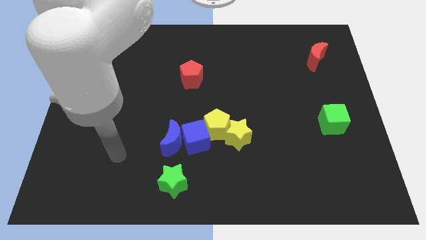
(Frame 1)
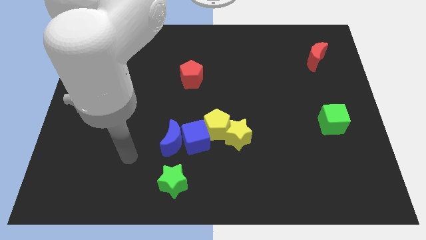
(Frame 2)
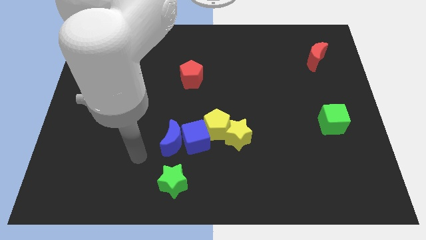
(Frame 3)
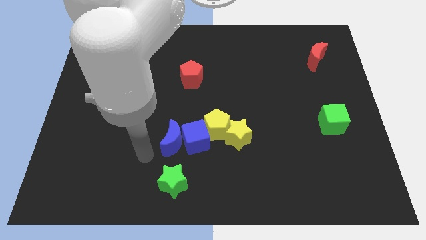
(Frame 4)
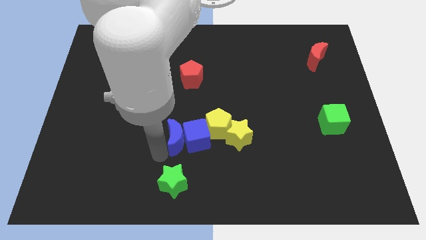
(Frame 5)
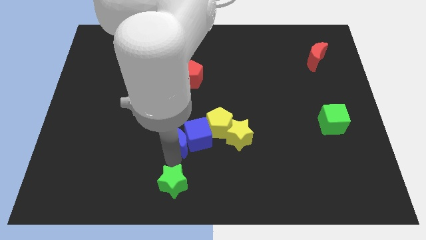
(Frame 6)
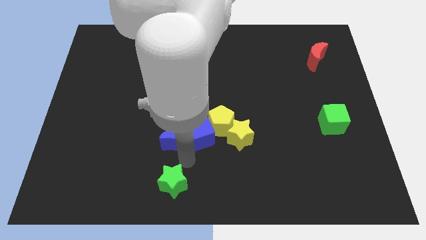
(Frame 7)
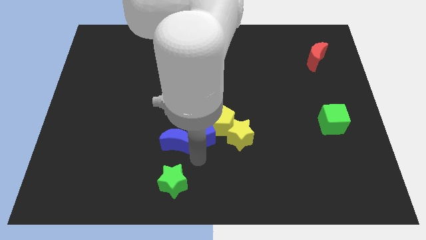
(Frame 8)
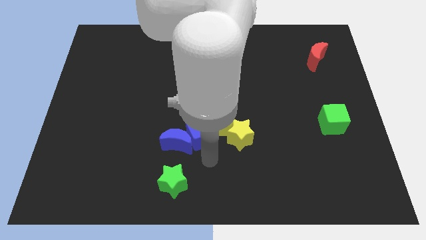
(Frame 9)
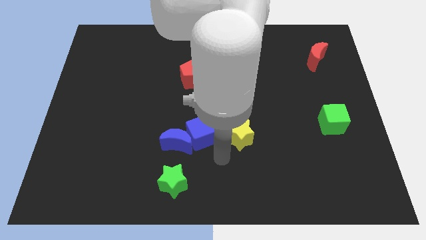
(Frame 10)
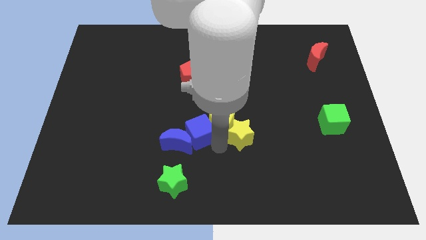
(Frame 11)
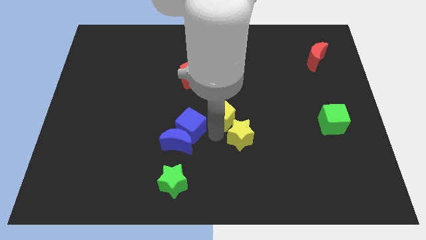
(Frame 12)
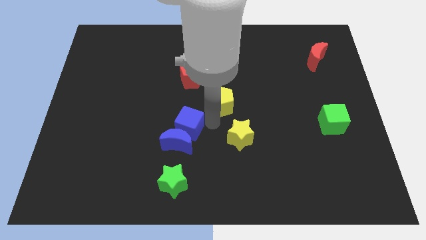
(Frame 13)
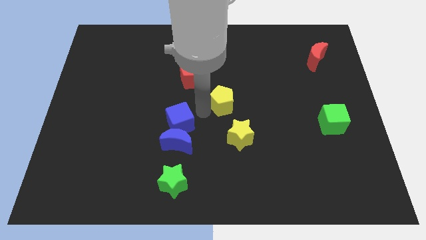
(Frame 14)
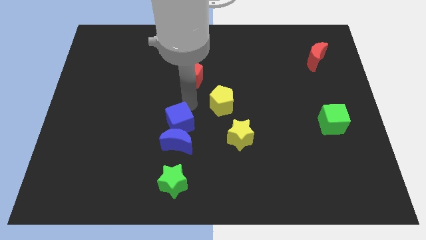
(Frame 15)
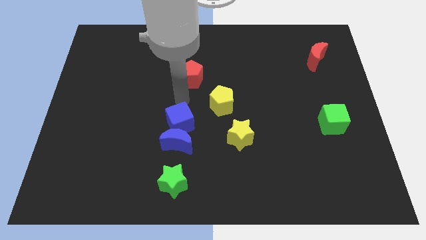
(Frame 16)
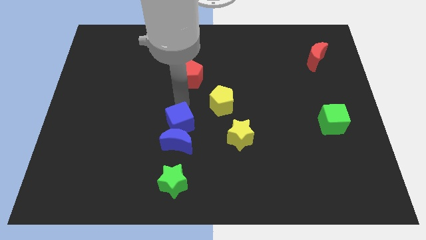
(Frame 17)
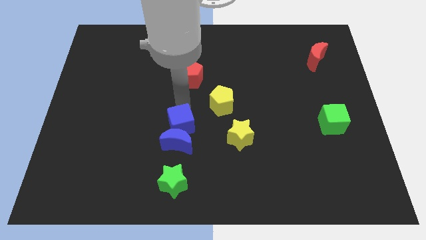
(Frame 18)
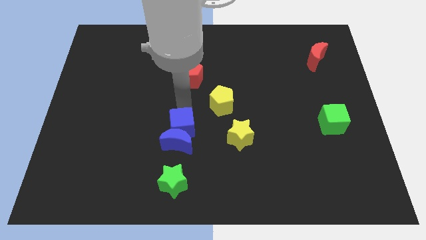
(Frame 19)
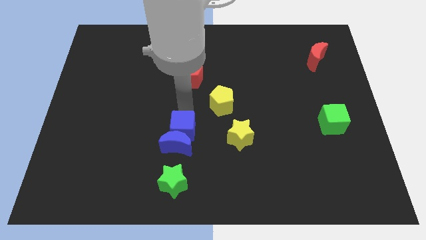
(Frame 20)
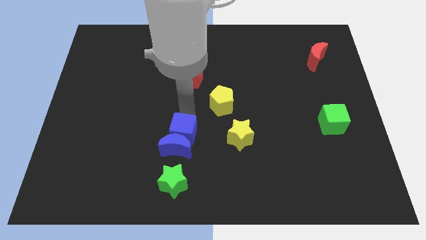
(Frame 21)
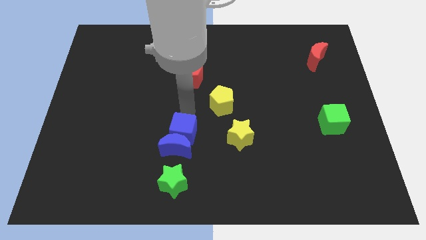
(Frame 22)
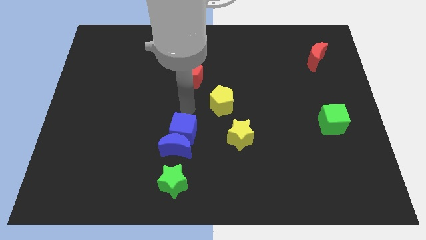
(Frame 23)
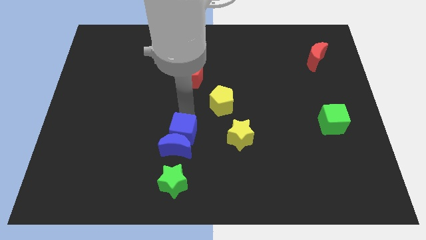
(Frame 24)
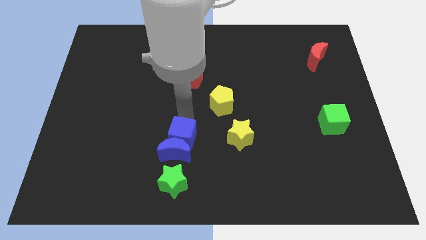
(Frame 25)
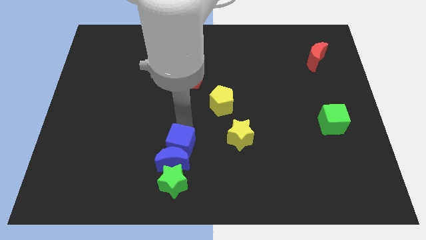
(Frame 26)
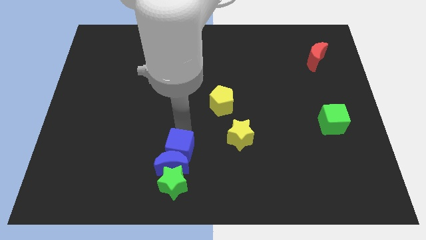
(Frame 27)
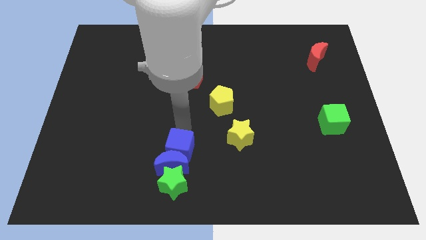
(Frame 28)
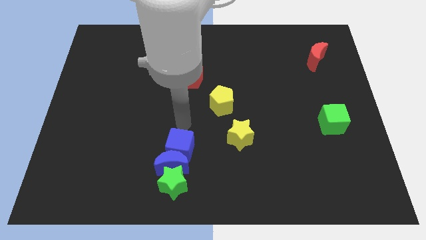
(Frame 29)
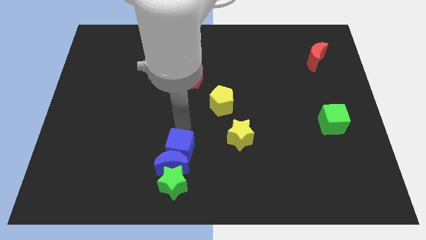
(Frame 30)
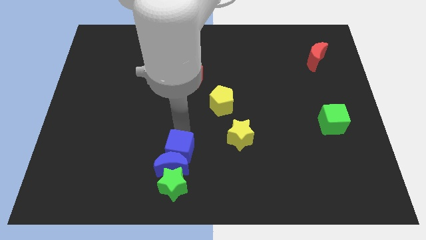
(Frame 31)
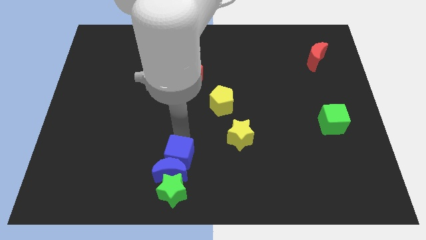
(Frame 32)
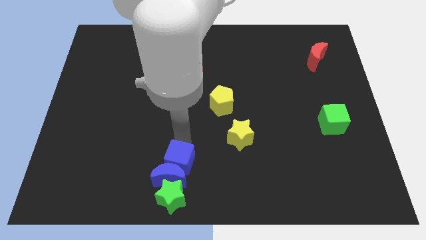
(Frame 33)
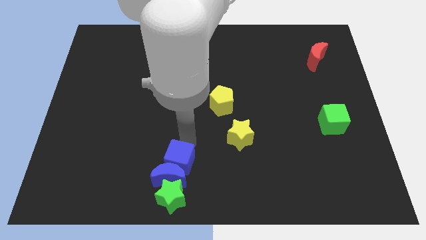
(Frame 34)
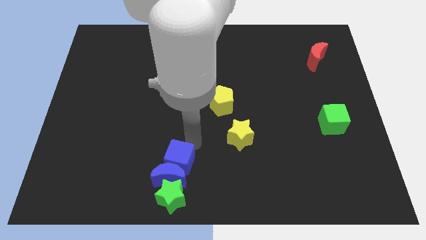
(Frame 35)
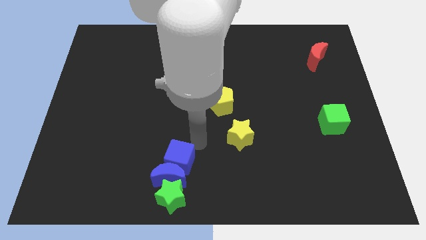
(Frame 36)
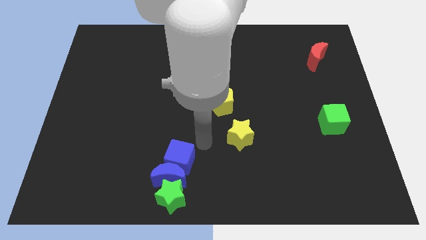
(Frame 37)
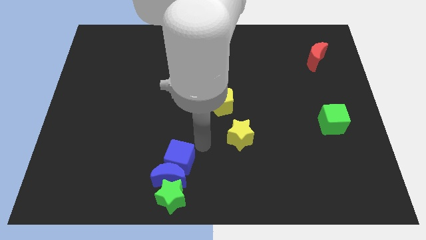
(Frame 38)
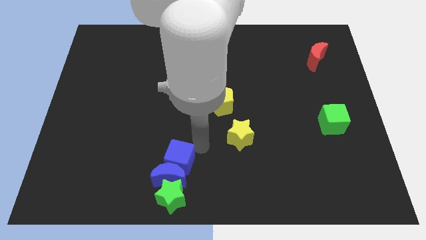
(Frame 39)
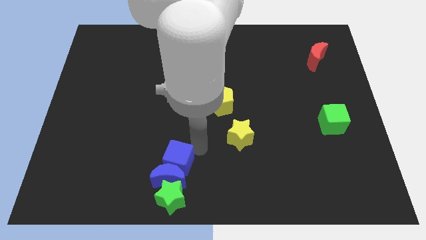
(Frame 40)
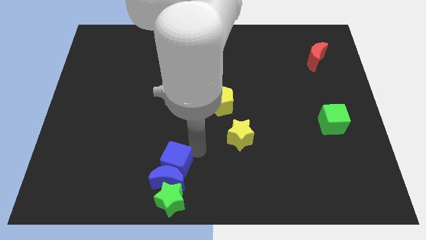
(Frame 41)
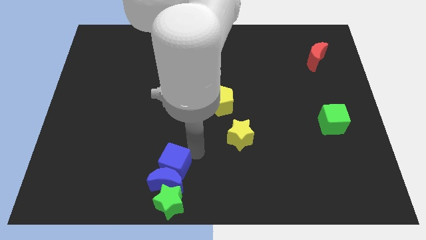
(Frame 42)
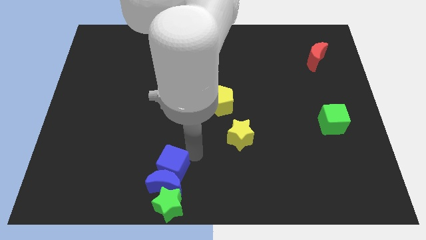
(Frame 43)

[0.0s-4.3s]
pull the blue cube apart from the group of blocks

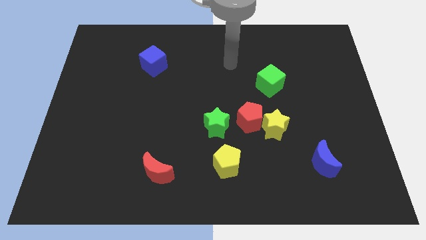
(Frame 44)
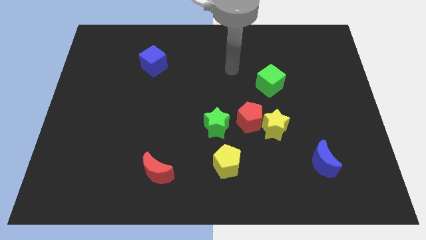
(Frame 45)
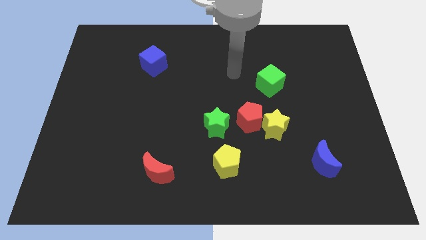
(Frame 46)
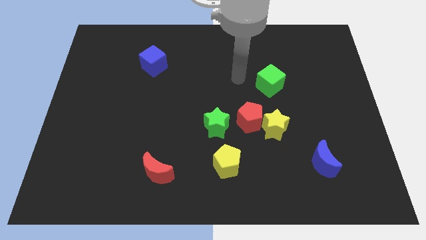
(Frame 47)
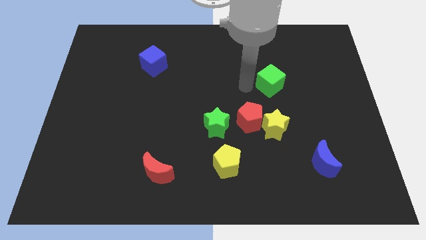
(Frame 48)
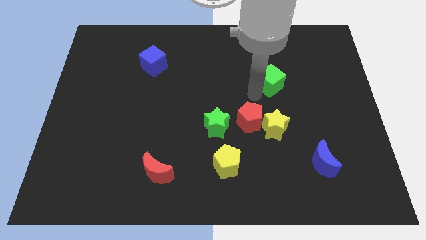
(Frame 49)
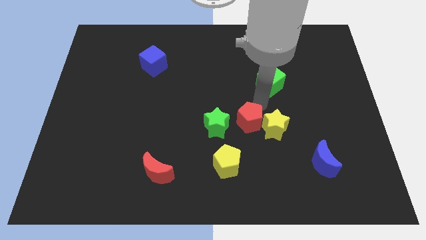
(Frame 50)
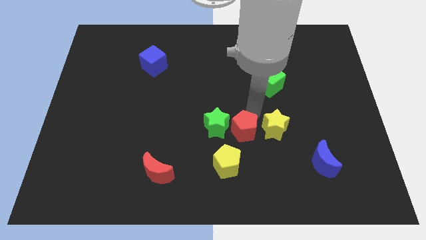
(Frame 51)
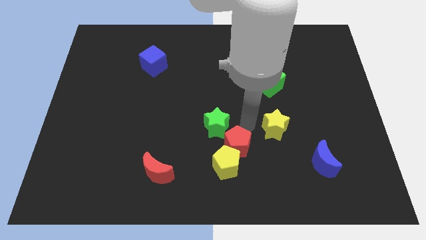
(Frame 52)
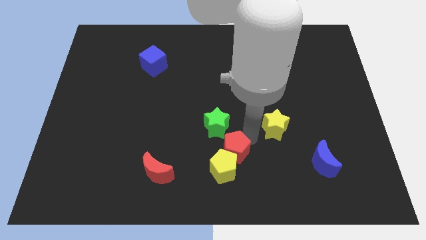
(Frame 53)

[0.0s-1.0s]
pull the yellow star apart from the red pentagon

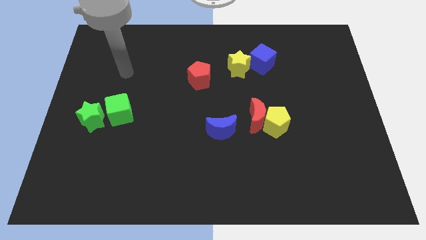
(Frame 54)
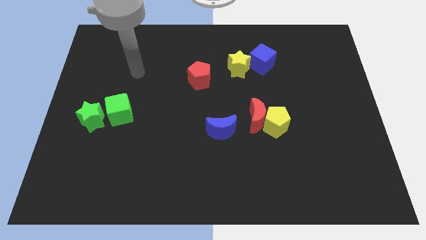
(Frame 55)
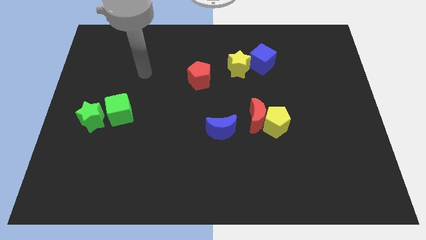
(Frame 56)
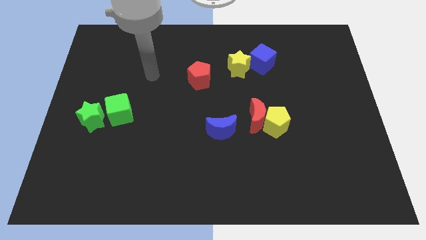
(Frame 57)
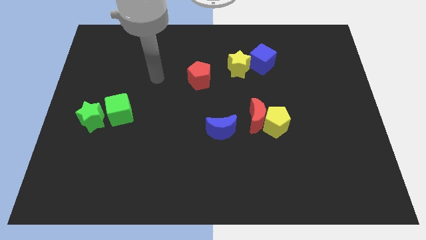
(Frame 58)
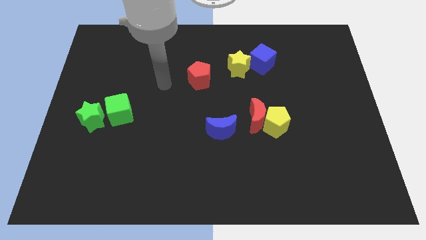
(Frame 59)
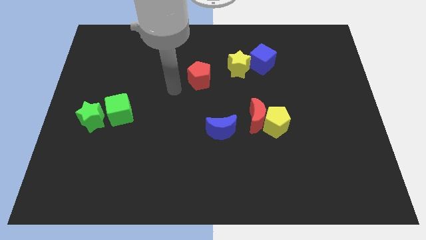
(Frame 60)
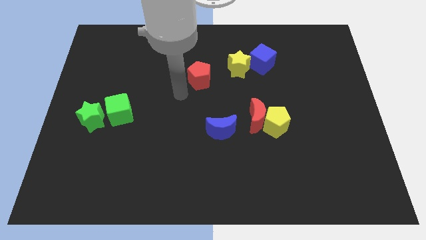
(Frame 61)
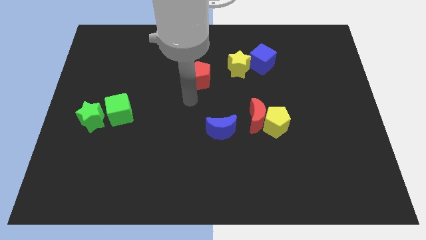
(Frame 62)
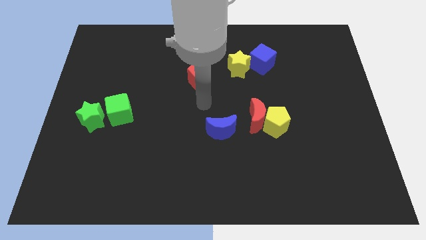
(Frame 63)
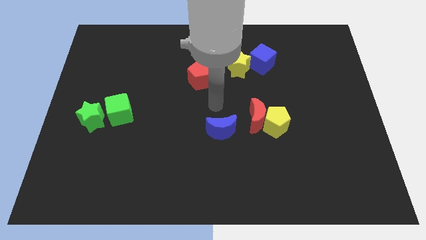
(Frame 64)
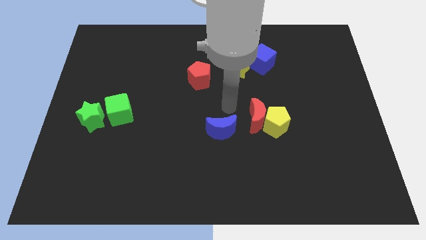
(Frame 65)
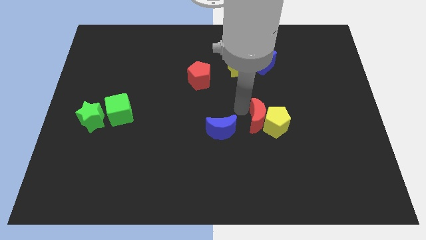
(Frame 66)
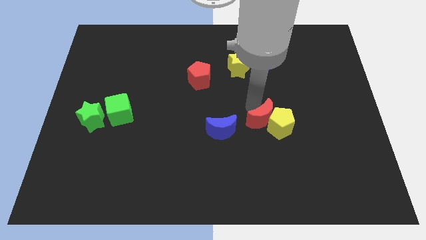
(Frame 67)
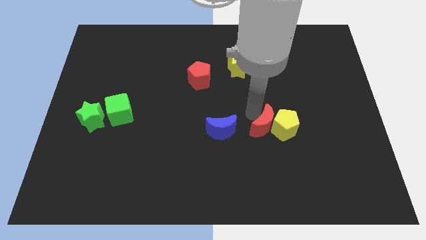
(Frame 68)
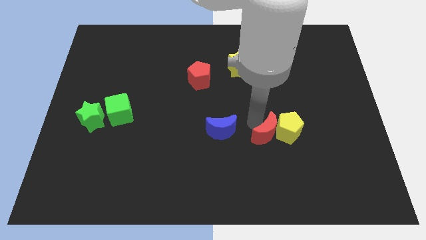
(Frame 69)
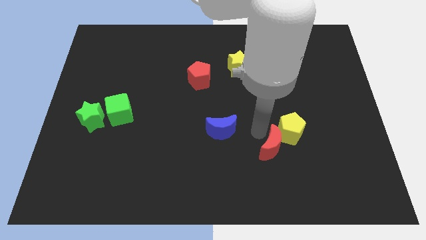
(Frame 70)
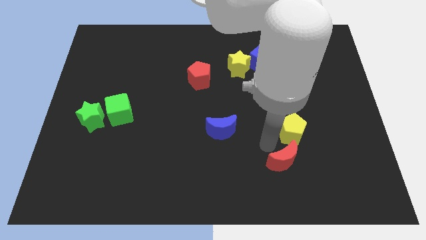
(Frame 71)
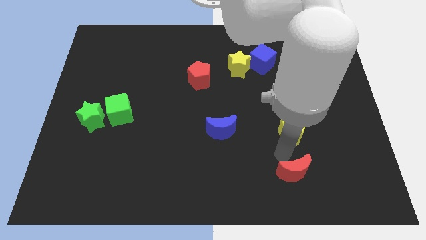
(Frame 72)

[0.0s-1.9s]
pull the yellow pentagon apart from the red moon

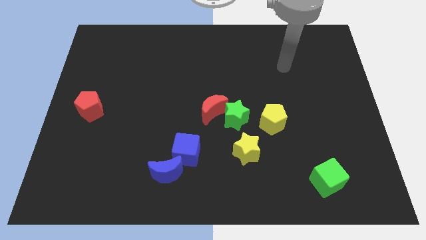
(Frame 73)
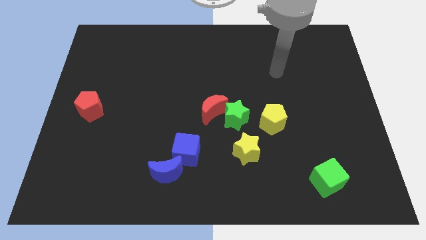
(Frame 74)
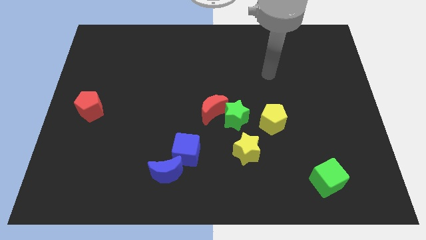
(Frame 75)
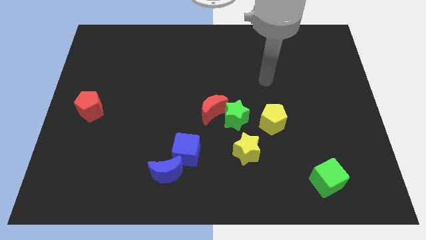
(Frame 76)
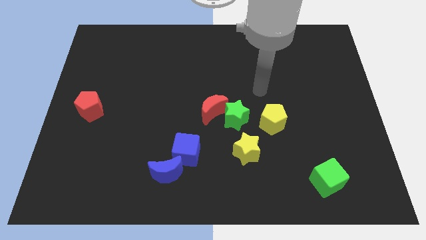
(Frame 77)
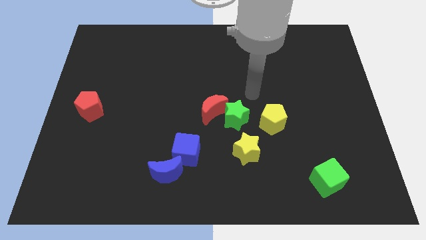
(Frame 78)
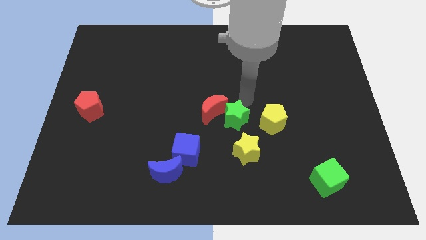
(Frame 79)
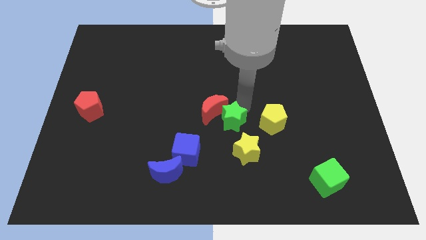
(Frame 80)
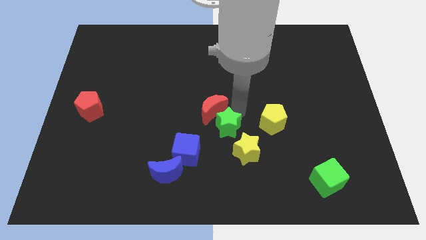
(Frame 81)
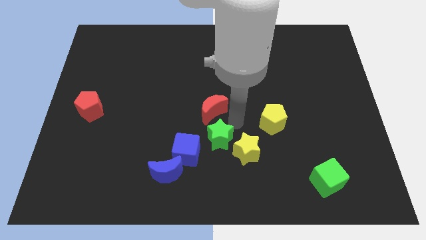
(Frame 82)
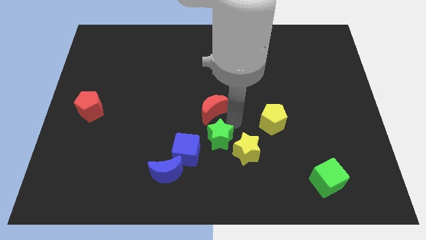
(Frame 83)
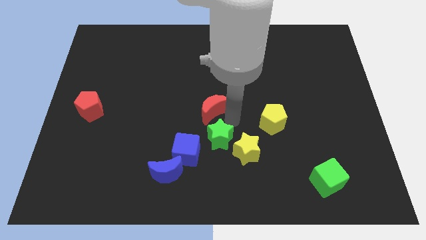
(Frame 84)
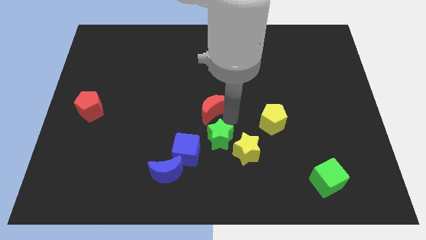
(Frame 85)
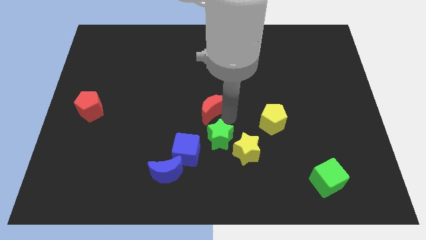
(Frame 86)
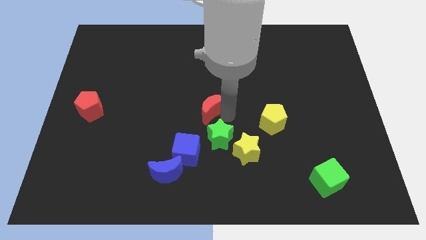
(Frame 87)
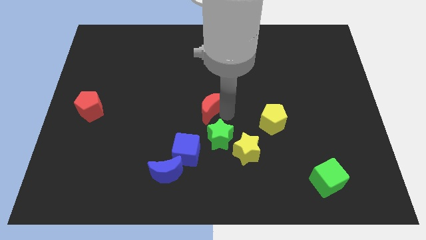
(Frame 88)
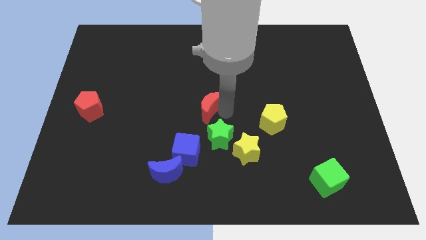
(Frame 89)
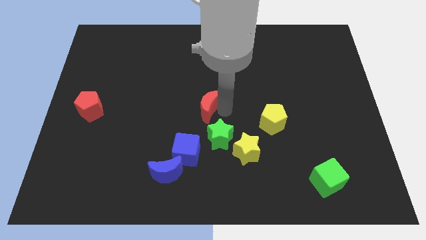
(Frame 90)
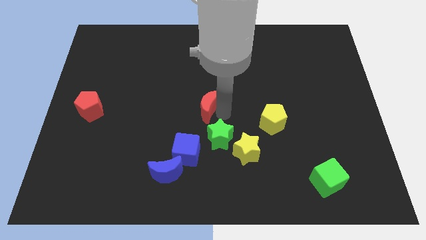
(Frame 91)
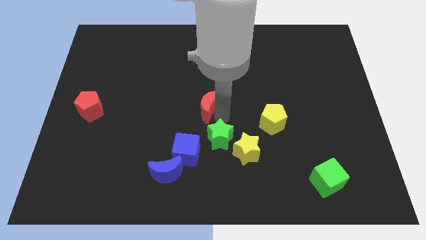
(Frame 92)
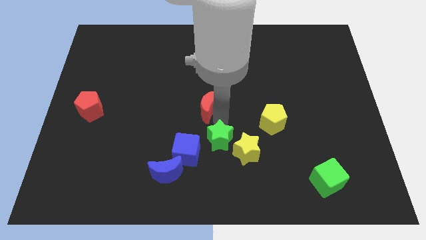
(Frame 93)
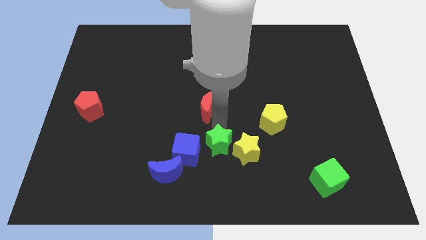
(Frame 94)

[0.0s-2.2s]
move the red moon away from the green star

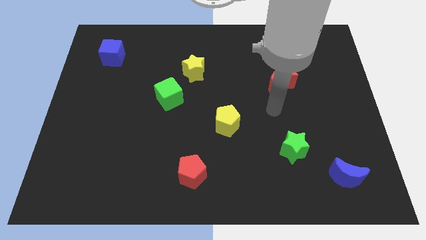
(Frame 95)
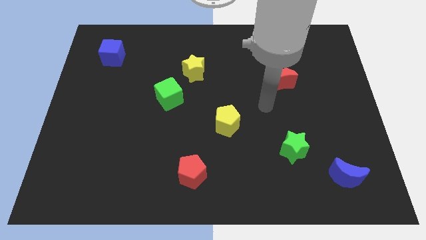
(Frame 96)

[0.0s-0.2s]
pull the green cube apart from the yellow star
